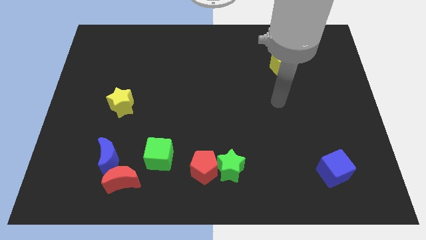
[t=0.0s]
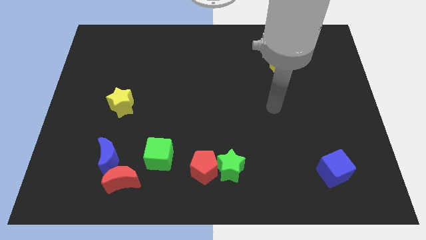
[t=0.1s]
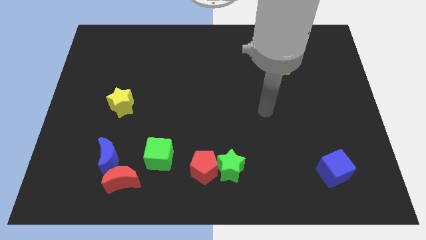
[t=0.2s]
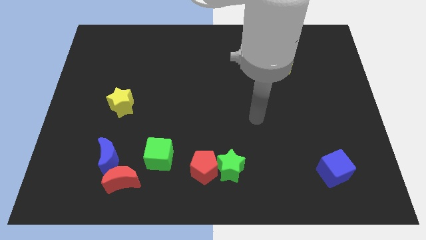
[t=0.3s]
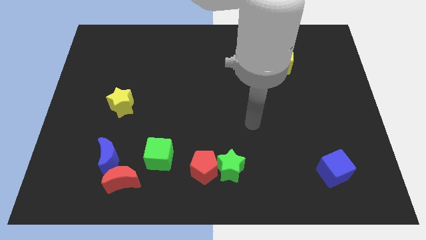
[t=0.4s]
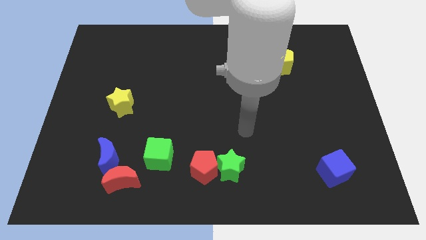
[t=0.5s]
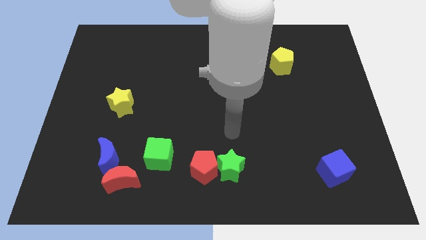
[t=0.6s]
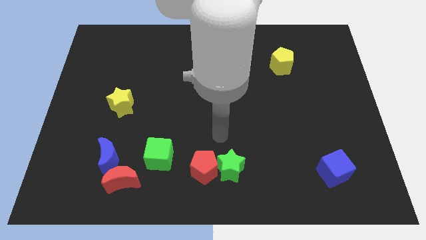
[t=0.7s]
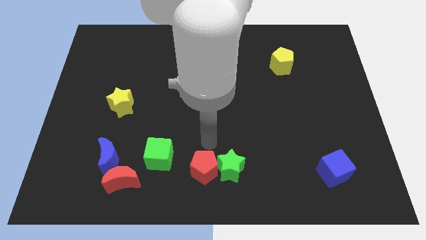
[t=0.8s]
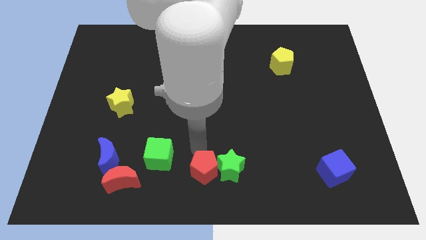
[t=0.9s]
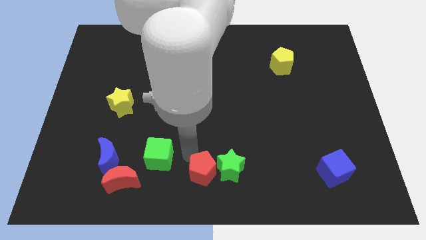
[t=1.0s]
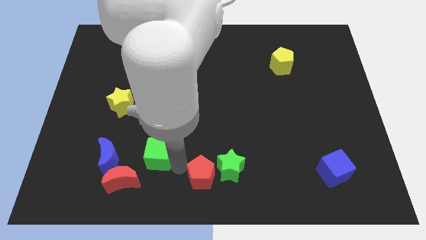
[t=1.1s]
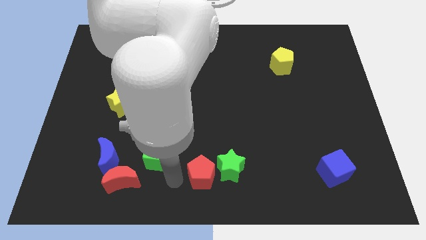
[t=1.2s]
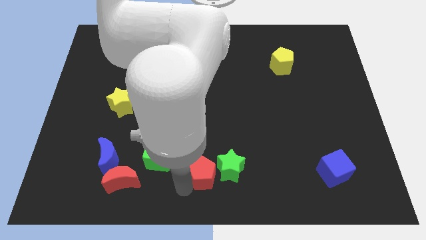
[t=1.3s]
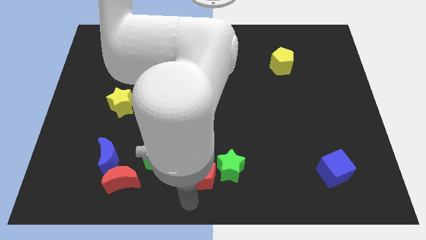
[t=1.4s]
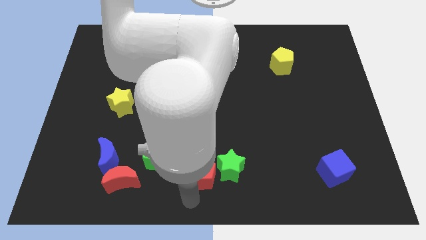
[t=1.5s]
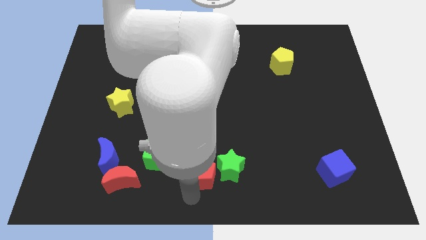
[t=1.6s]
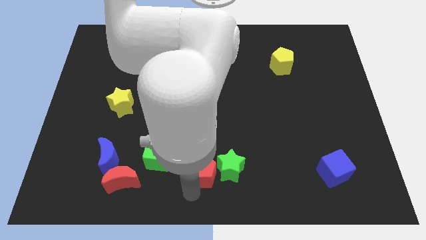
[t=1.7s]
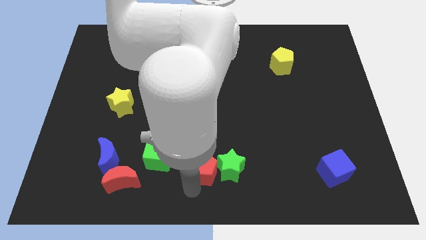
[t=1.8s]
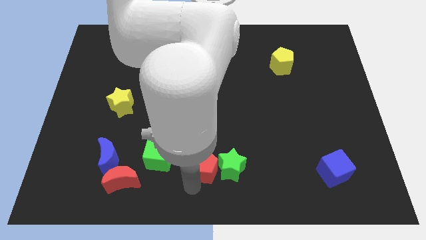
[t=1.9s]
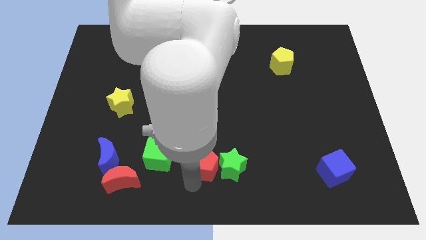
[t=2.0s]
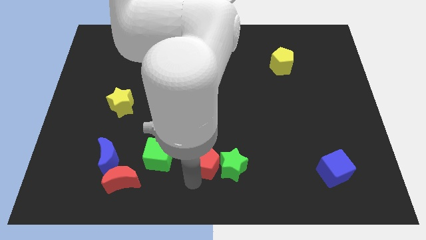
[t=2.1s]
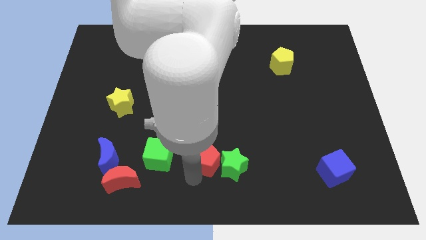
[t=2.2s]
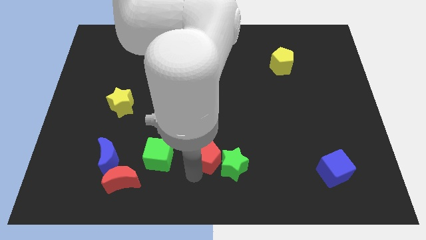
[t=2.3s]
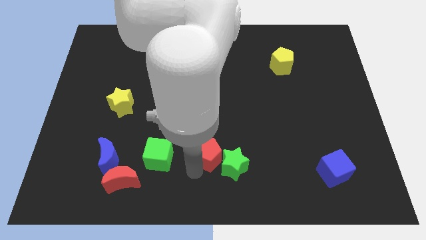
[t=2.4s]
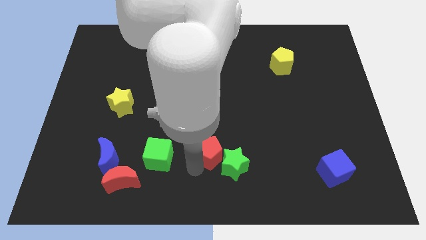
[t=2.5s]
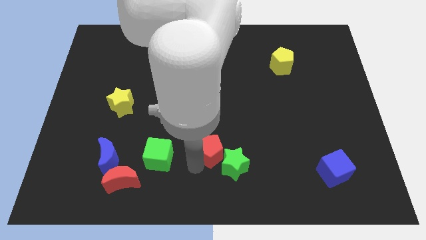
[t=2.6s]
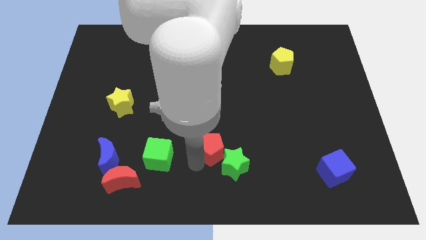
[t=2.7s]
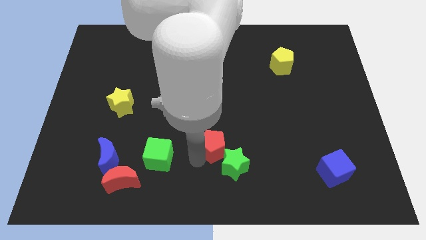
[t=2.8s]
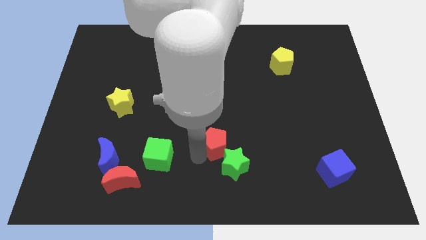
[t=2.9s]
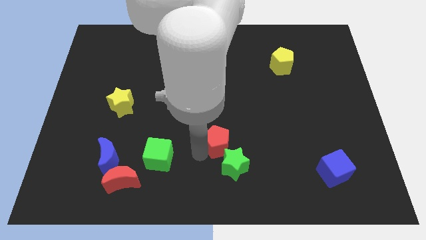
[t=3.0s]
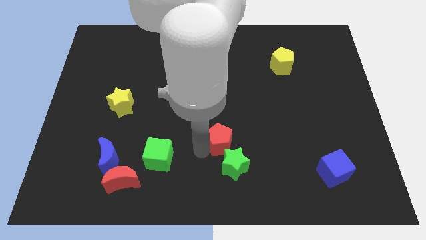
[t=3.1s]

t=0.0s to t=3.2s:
slide the red pentagon up and right diagonally a little

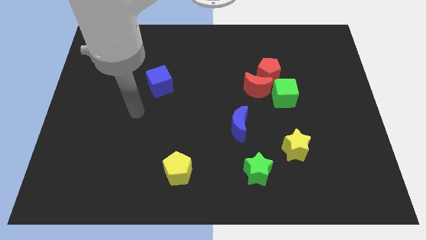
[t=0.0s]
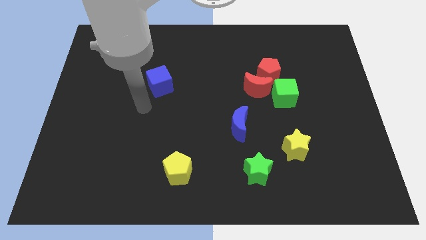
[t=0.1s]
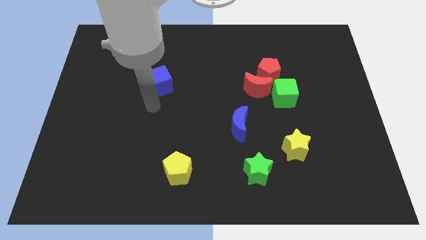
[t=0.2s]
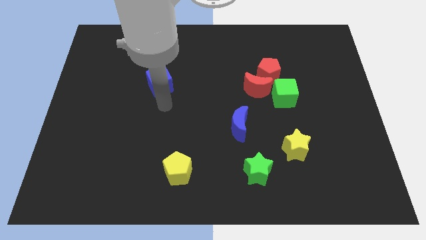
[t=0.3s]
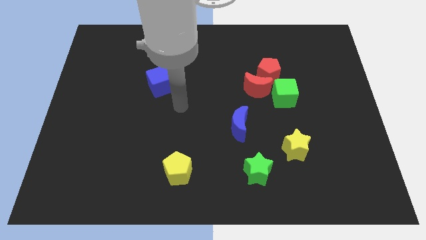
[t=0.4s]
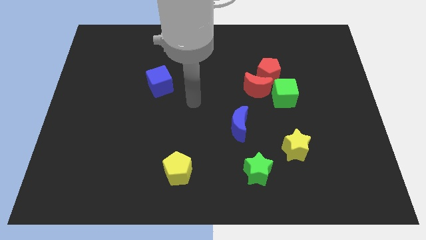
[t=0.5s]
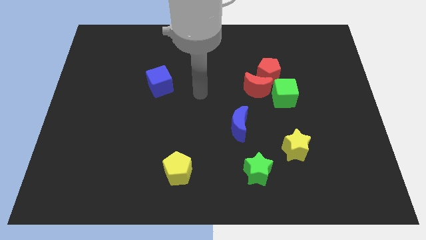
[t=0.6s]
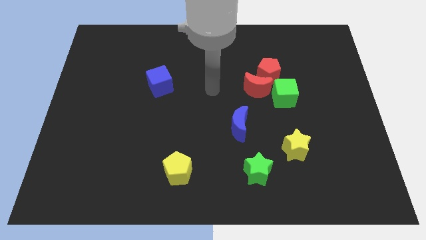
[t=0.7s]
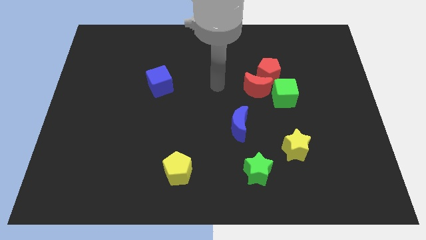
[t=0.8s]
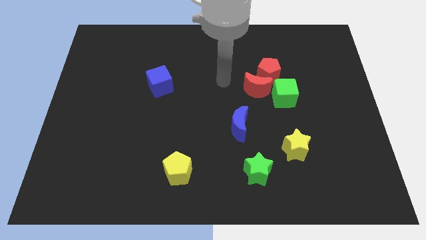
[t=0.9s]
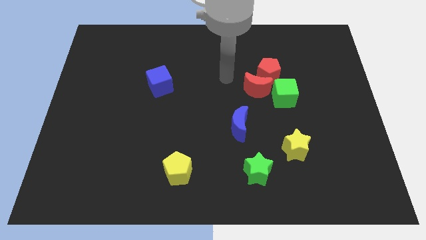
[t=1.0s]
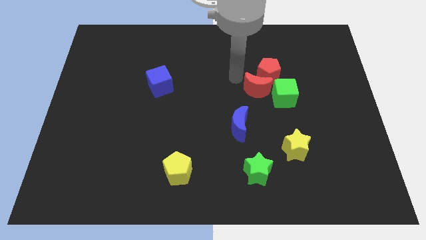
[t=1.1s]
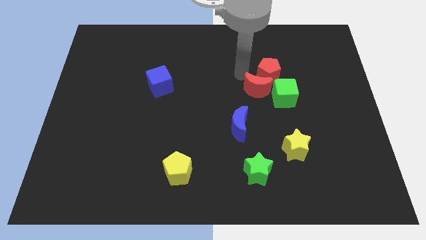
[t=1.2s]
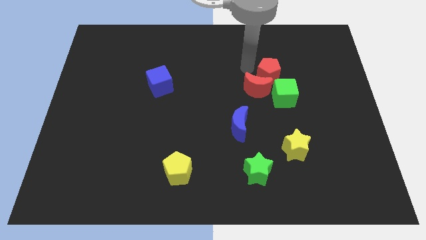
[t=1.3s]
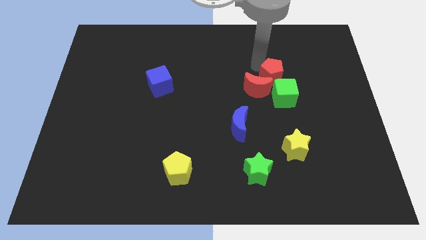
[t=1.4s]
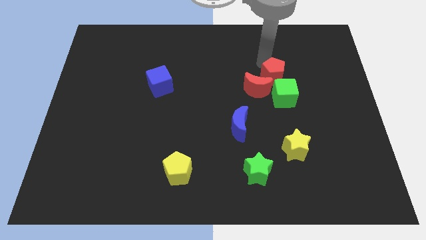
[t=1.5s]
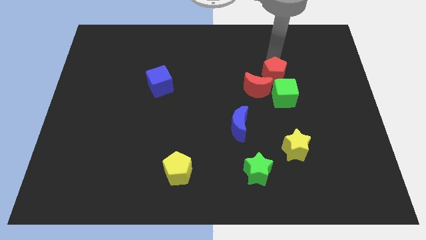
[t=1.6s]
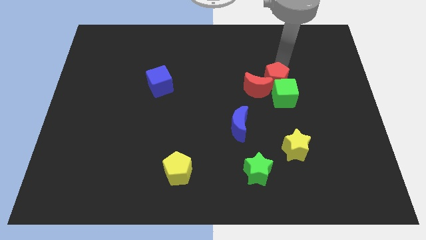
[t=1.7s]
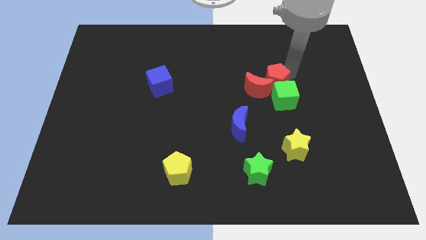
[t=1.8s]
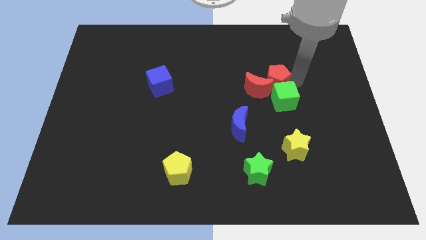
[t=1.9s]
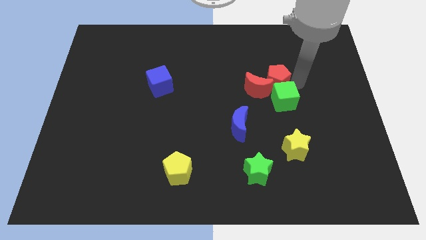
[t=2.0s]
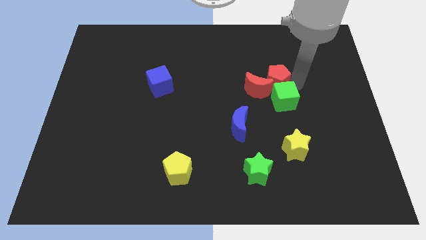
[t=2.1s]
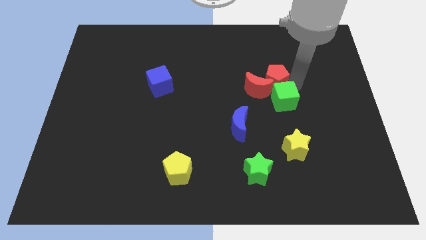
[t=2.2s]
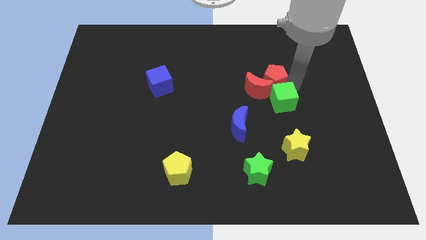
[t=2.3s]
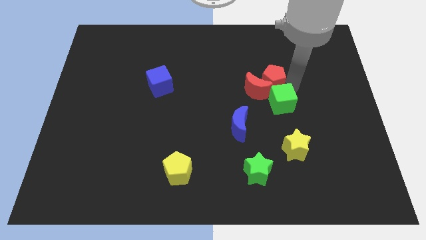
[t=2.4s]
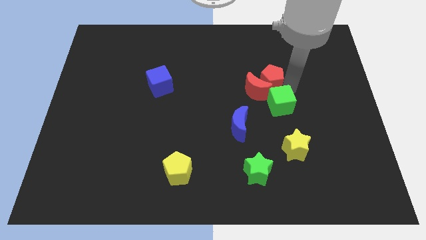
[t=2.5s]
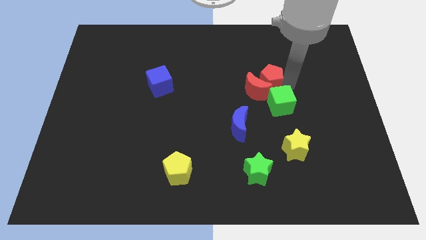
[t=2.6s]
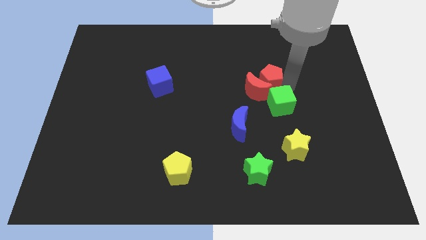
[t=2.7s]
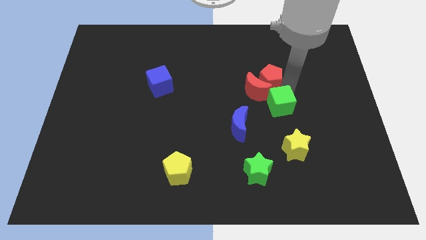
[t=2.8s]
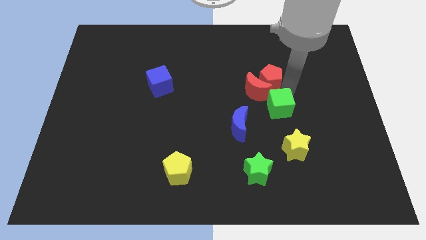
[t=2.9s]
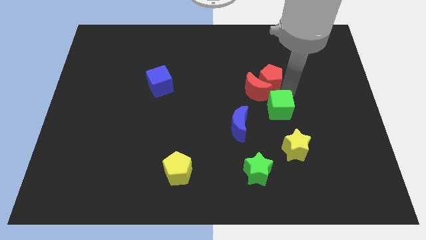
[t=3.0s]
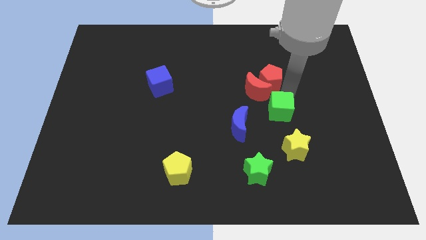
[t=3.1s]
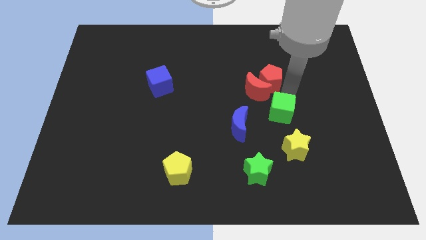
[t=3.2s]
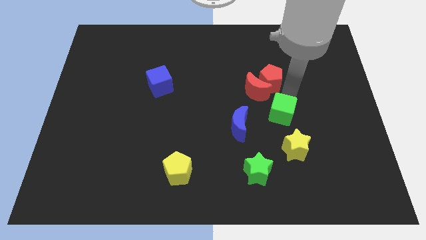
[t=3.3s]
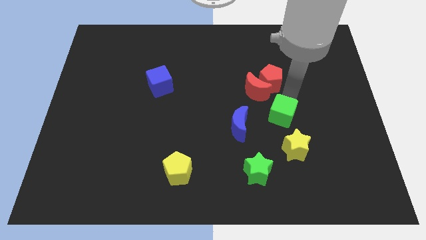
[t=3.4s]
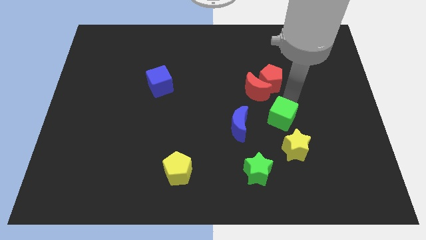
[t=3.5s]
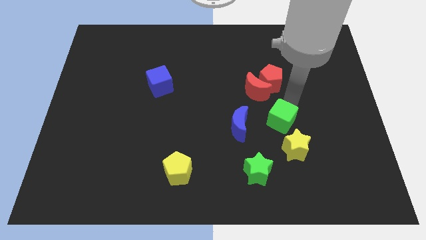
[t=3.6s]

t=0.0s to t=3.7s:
slide the green cube downwards a little

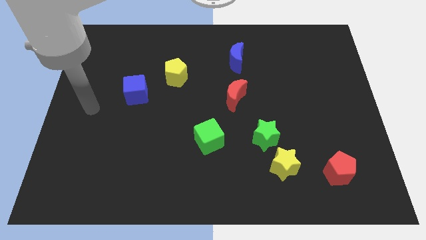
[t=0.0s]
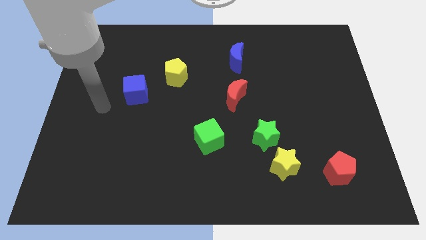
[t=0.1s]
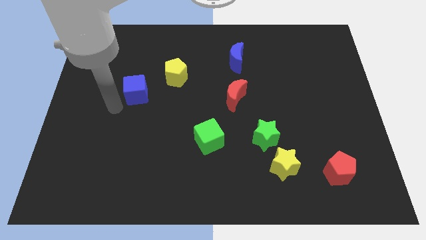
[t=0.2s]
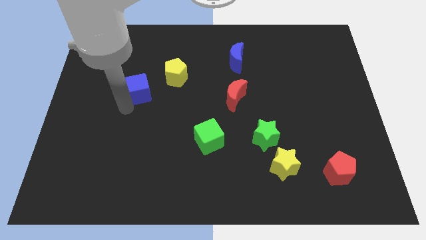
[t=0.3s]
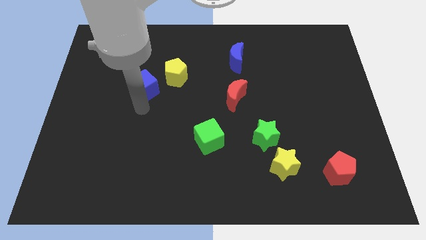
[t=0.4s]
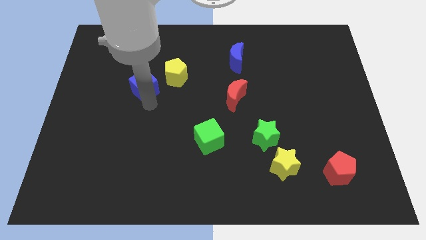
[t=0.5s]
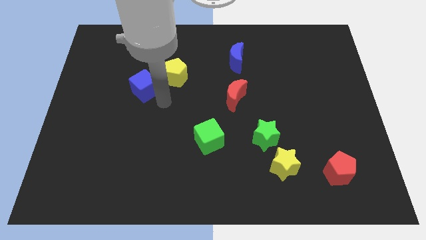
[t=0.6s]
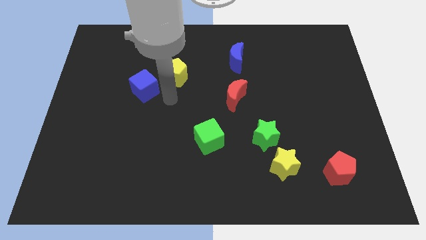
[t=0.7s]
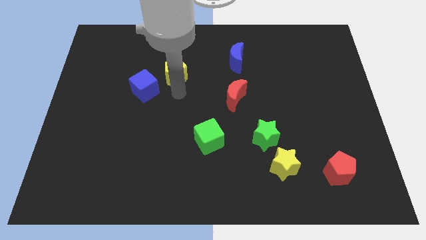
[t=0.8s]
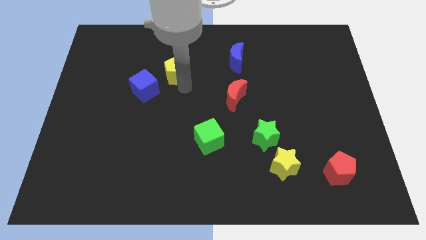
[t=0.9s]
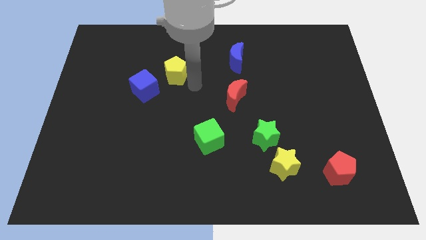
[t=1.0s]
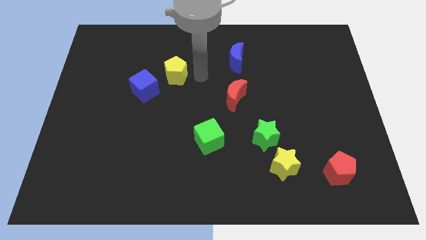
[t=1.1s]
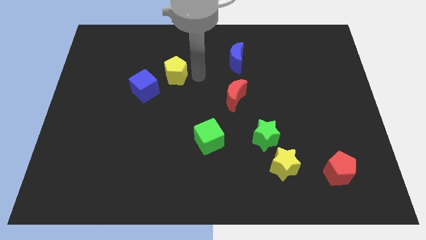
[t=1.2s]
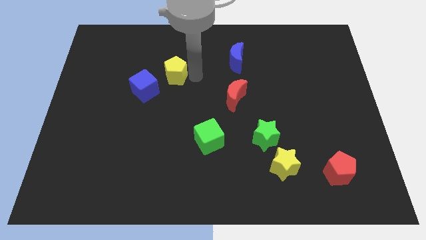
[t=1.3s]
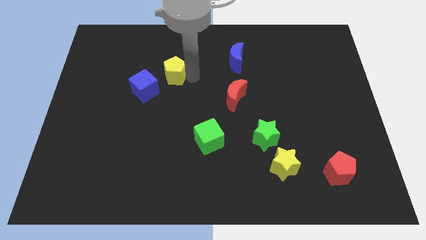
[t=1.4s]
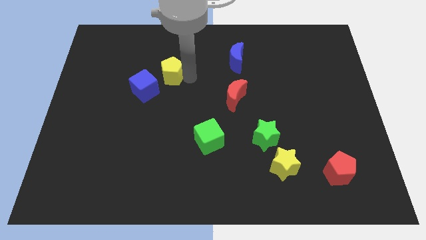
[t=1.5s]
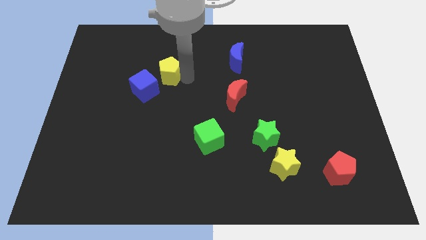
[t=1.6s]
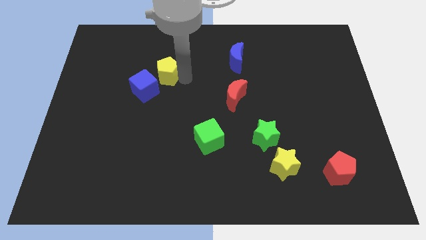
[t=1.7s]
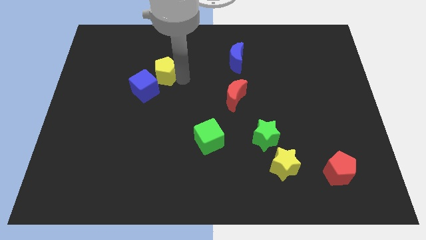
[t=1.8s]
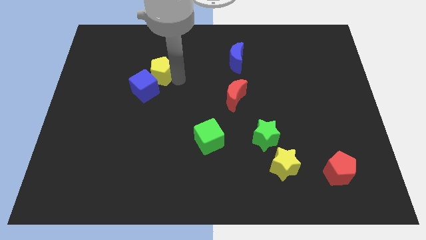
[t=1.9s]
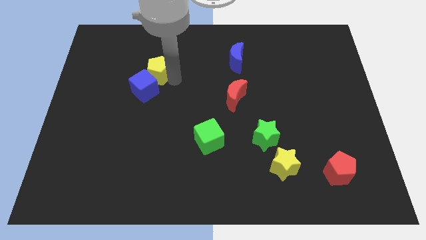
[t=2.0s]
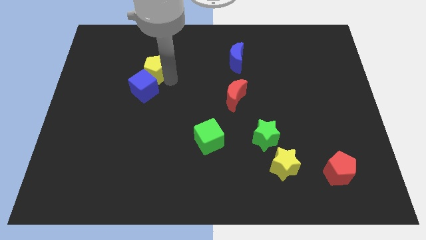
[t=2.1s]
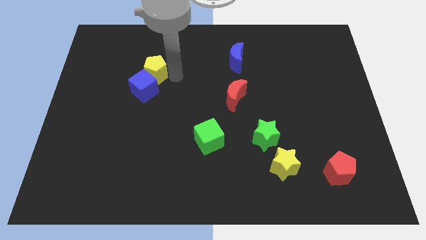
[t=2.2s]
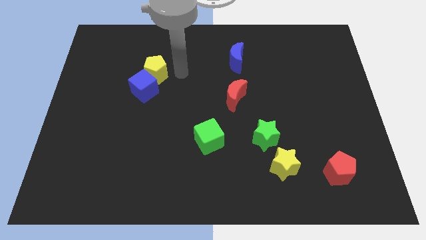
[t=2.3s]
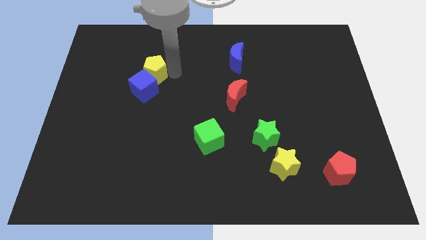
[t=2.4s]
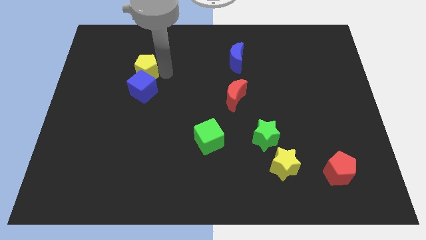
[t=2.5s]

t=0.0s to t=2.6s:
slightly push the yellow pentagon to the left
